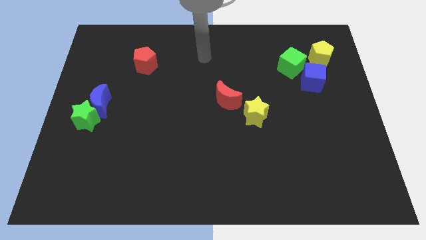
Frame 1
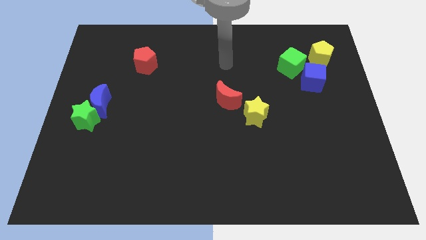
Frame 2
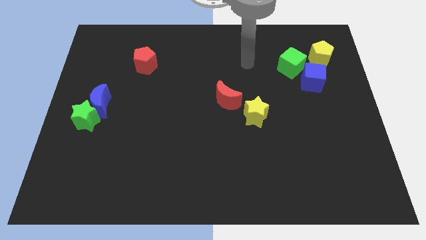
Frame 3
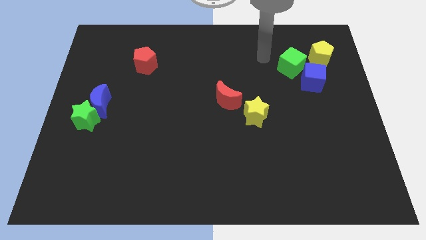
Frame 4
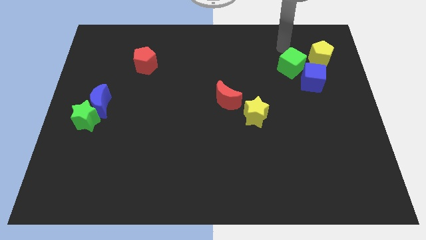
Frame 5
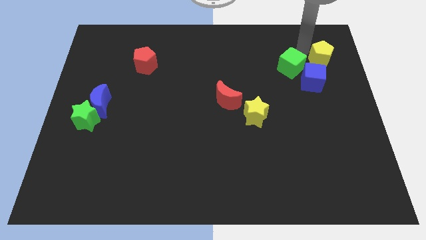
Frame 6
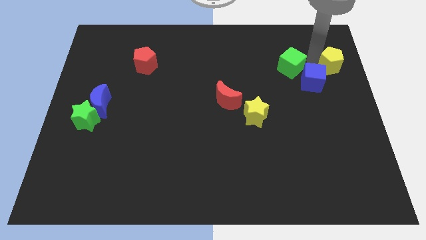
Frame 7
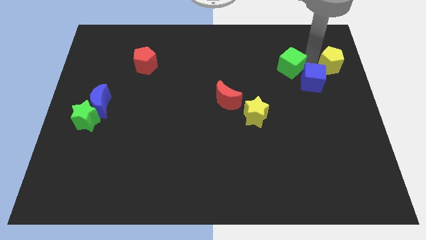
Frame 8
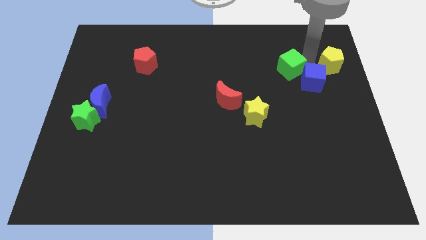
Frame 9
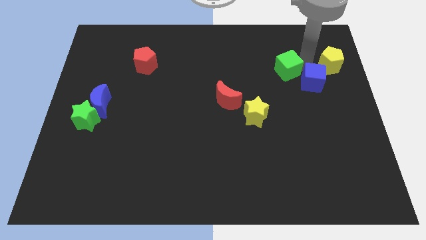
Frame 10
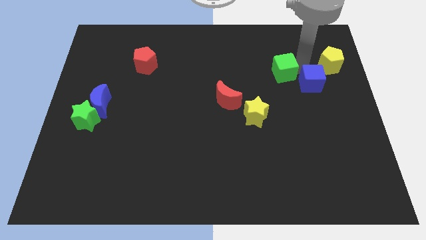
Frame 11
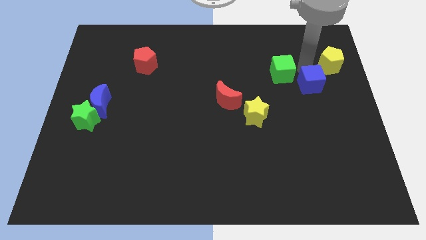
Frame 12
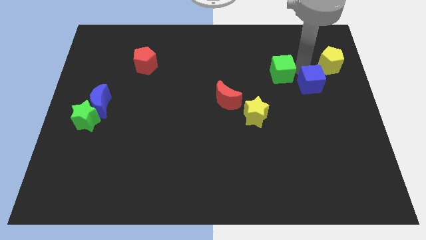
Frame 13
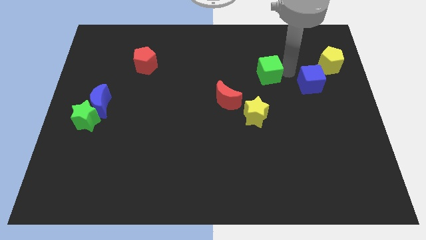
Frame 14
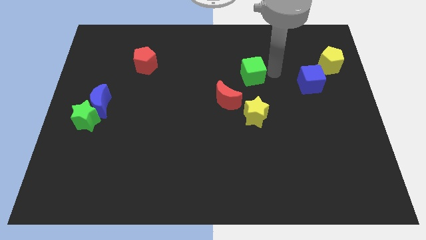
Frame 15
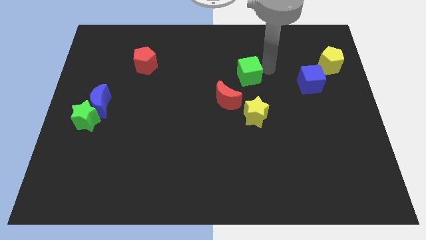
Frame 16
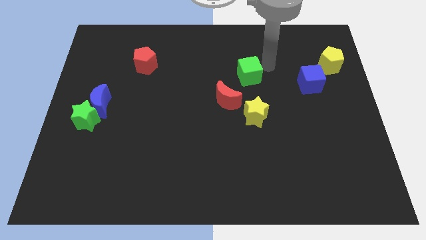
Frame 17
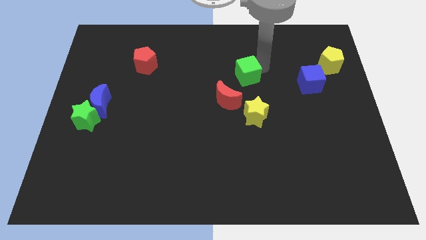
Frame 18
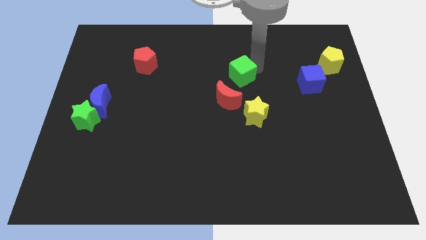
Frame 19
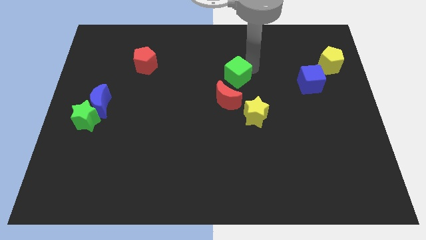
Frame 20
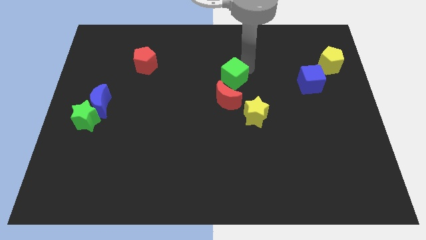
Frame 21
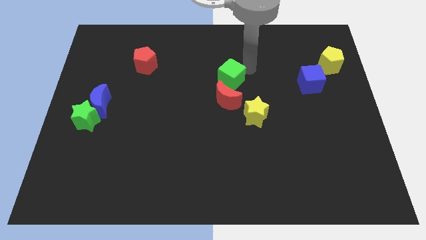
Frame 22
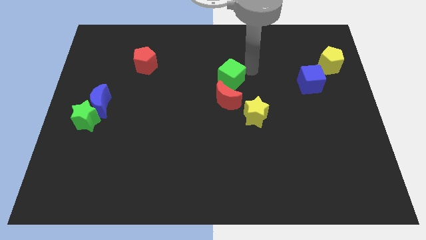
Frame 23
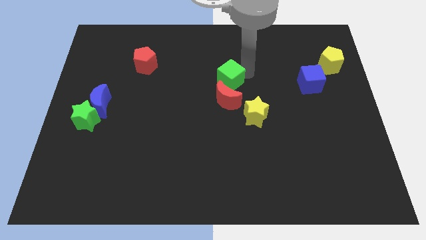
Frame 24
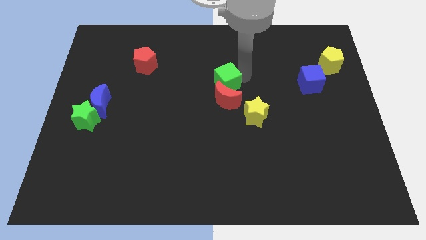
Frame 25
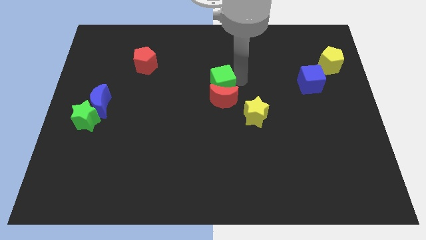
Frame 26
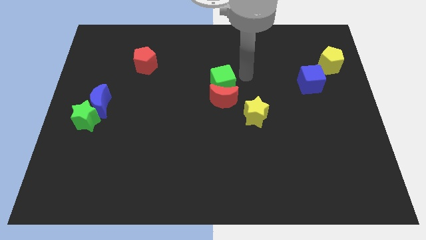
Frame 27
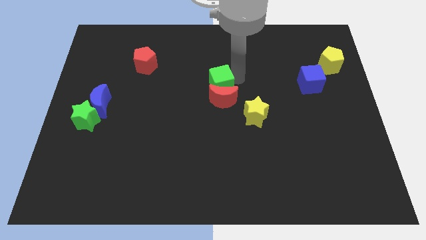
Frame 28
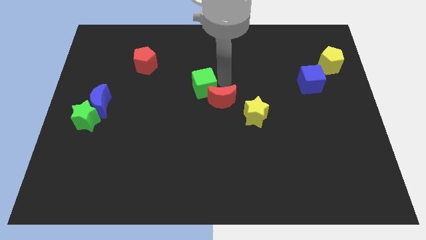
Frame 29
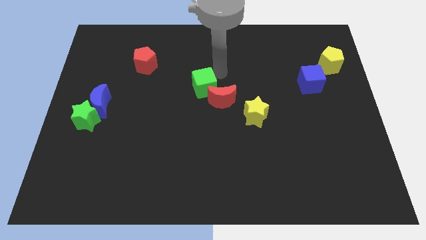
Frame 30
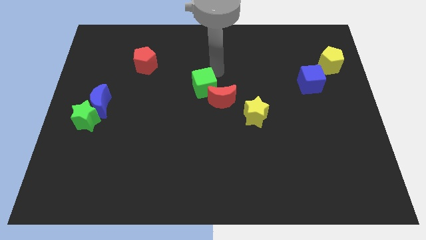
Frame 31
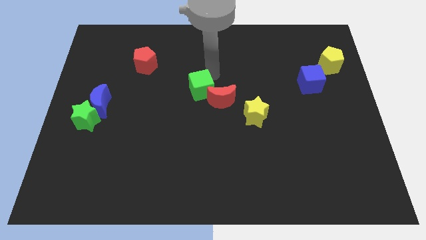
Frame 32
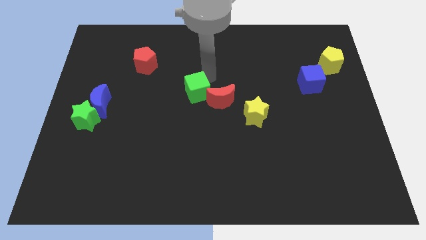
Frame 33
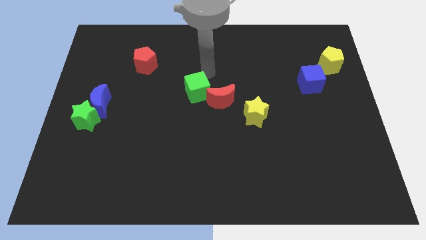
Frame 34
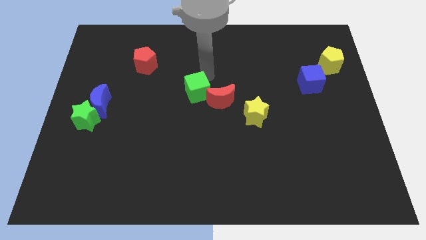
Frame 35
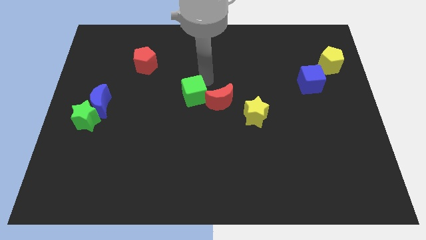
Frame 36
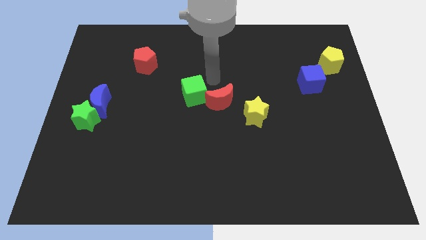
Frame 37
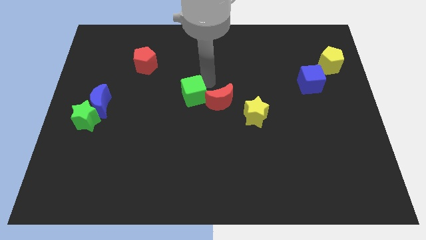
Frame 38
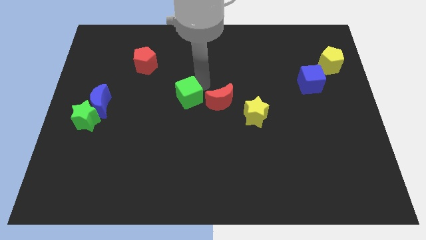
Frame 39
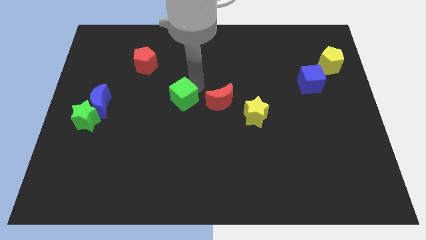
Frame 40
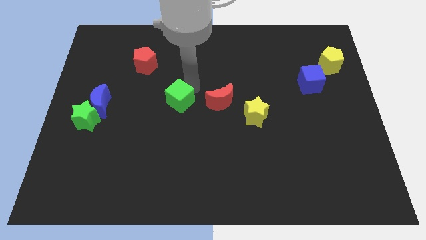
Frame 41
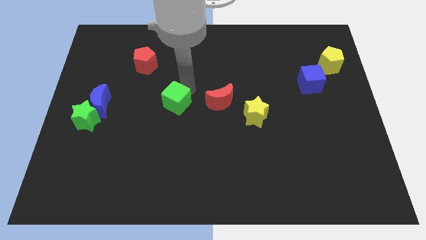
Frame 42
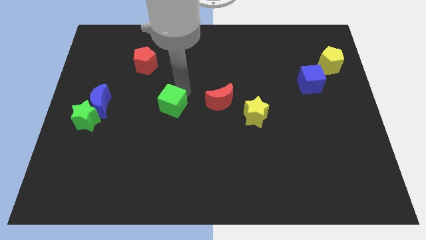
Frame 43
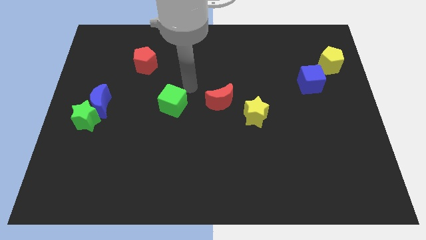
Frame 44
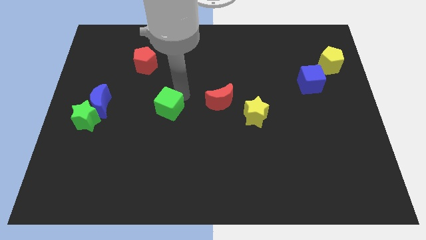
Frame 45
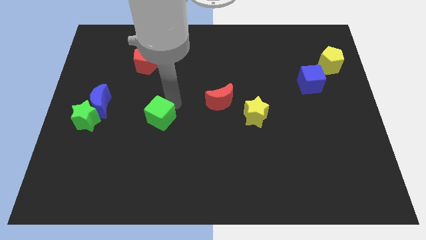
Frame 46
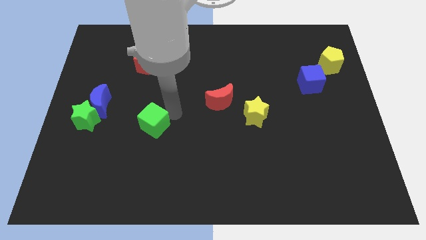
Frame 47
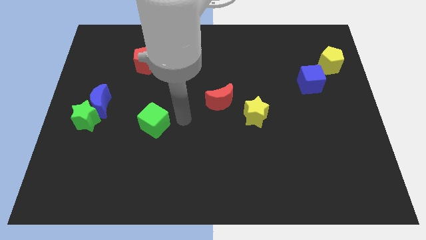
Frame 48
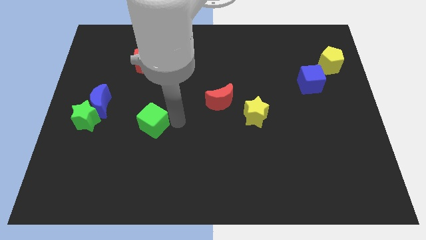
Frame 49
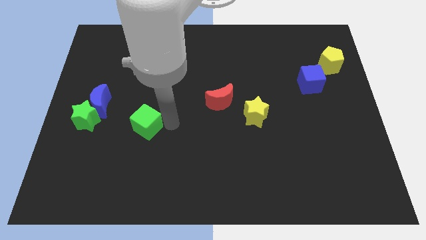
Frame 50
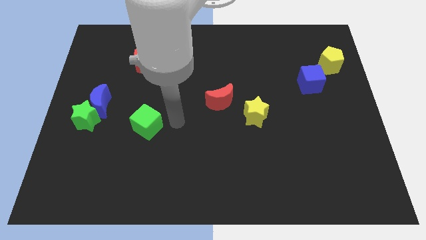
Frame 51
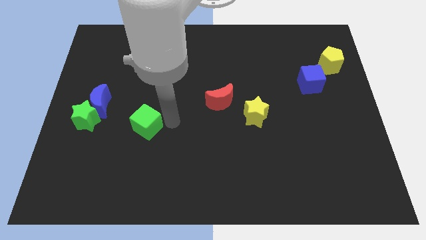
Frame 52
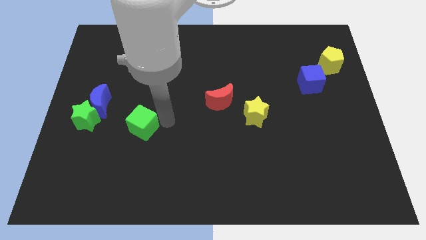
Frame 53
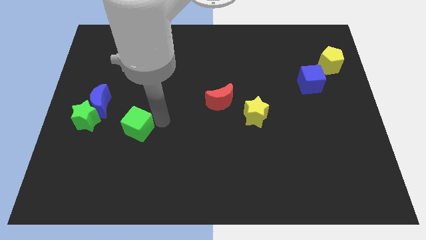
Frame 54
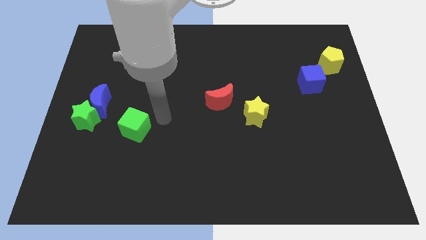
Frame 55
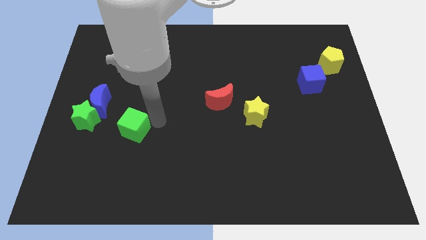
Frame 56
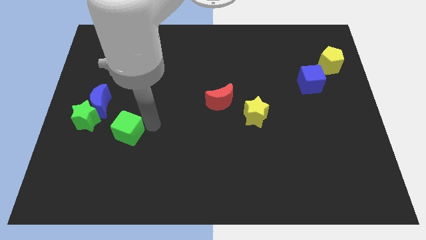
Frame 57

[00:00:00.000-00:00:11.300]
move the green cube to the bottom right side of the green star

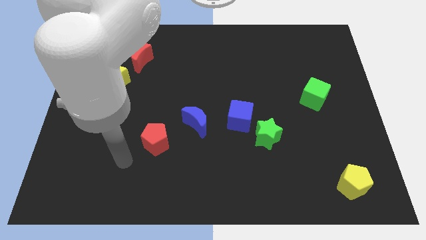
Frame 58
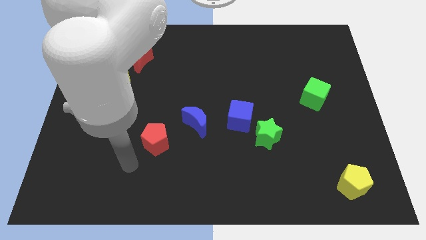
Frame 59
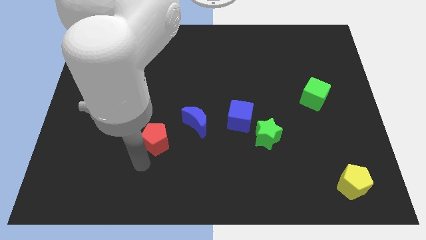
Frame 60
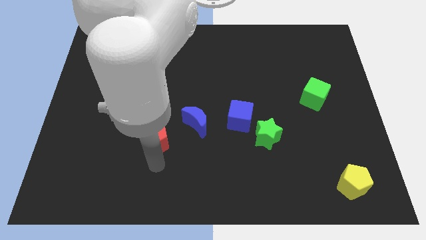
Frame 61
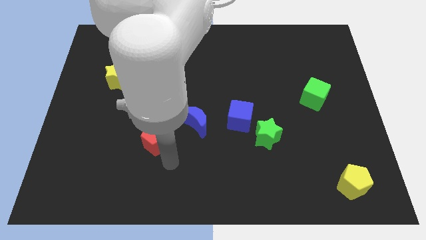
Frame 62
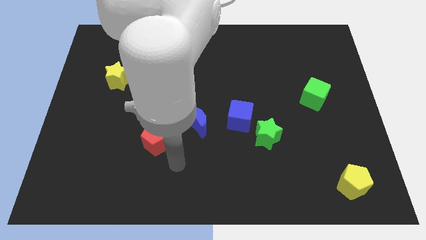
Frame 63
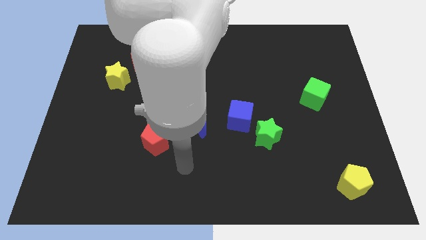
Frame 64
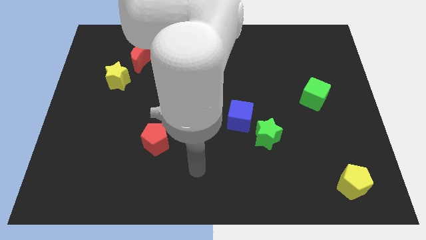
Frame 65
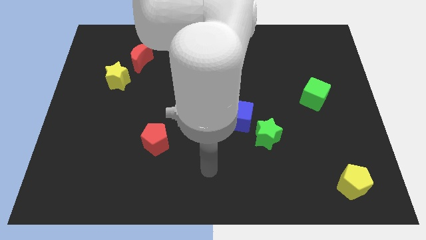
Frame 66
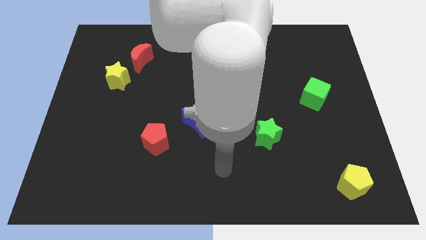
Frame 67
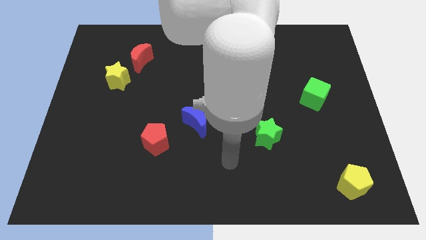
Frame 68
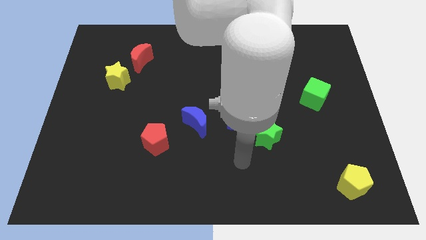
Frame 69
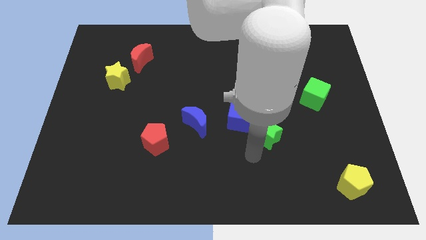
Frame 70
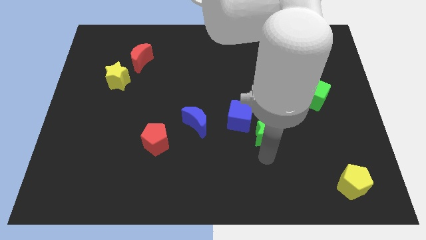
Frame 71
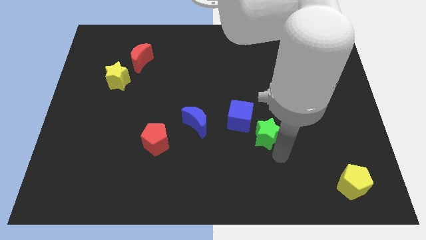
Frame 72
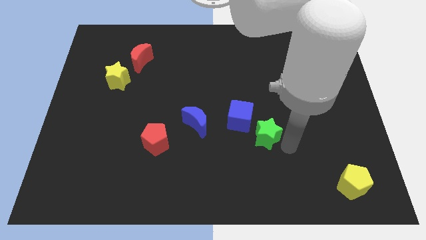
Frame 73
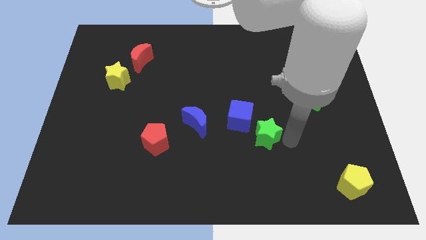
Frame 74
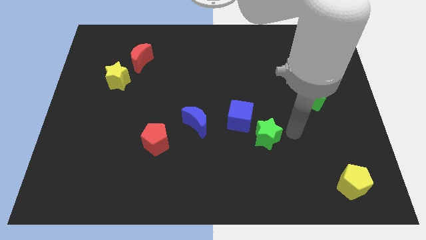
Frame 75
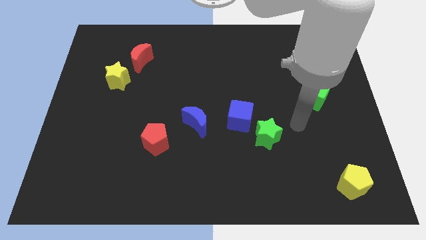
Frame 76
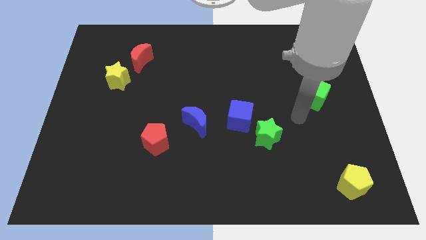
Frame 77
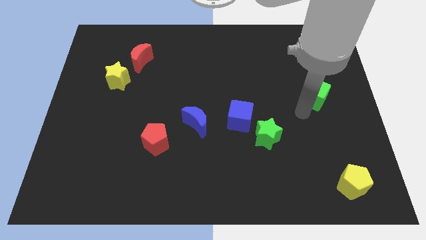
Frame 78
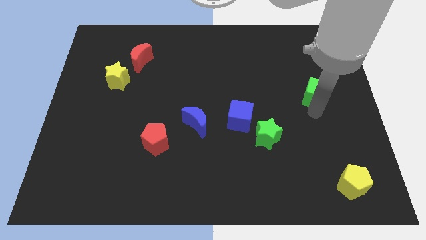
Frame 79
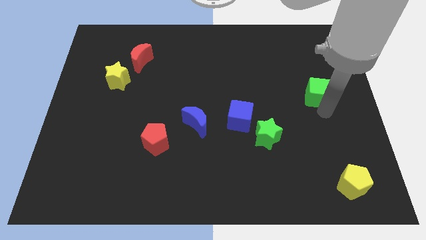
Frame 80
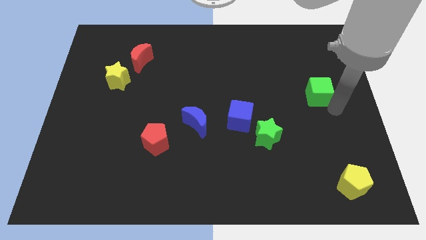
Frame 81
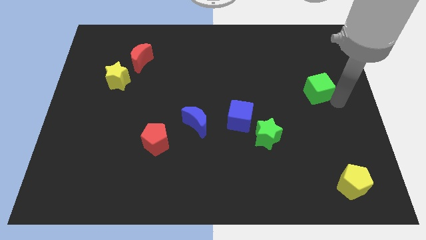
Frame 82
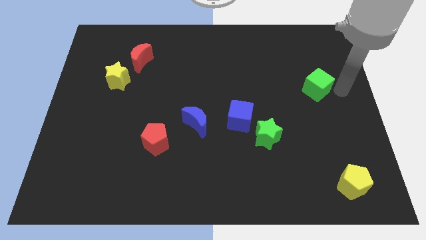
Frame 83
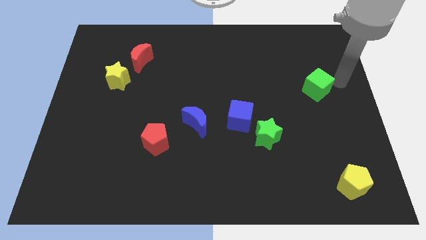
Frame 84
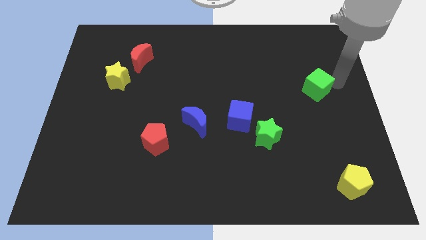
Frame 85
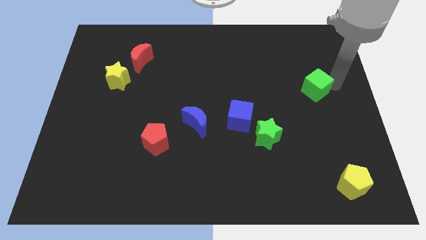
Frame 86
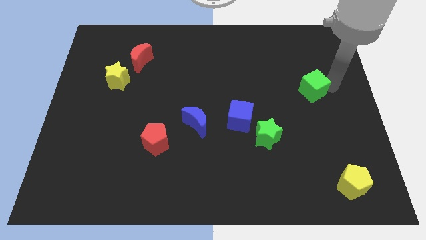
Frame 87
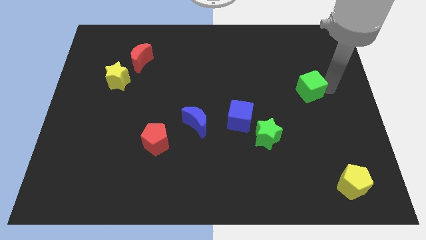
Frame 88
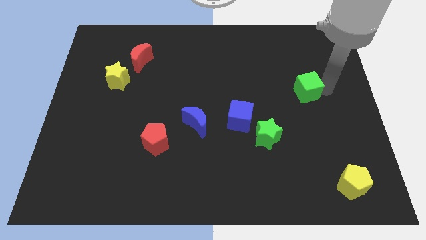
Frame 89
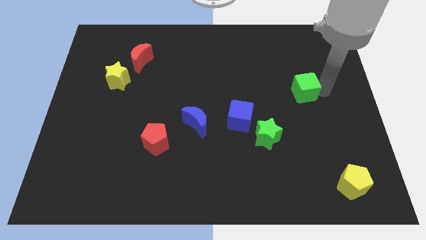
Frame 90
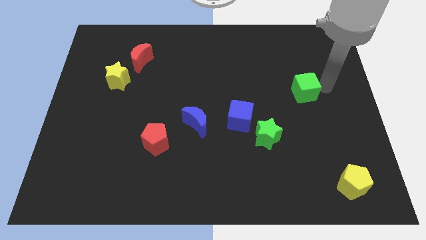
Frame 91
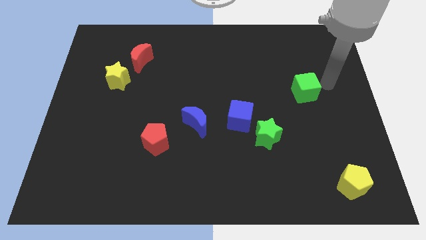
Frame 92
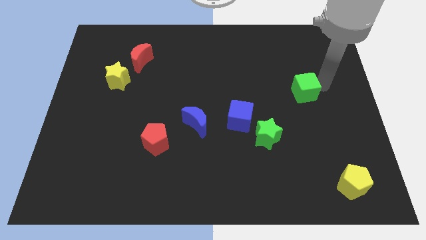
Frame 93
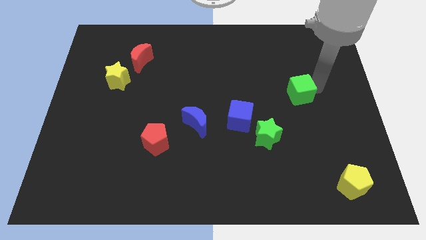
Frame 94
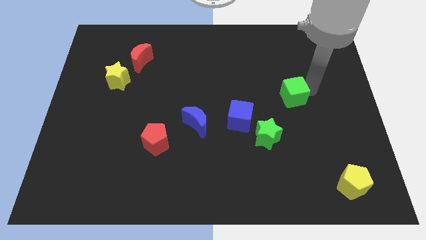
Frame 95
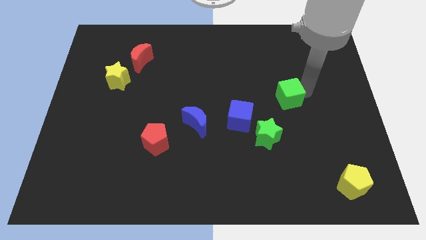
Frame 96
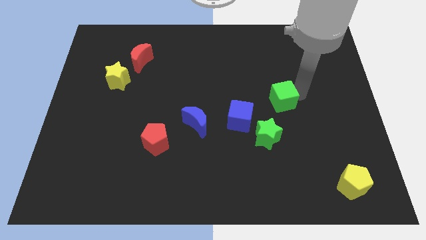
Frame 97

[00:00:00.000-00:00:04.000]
slide the green cube above the green star
